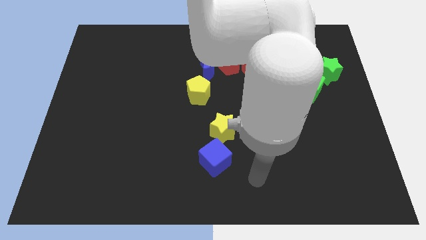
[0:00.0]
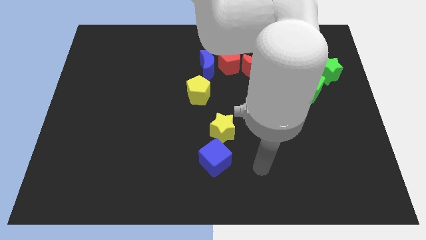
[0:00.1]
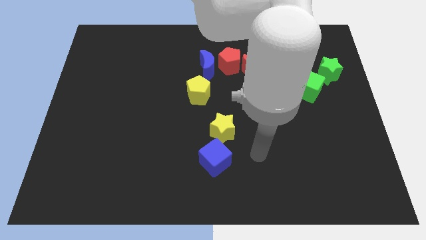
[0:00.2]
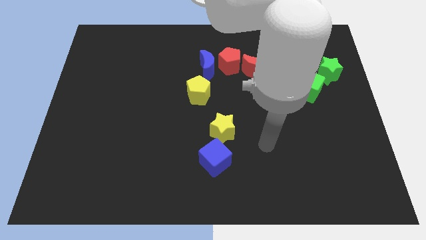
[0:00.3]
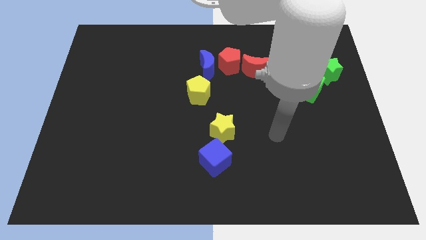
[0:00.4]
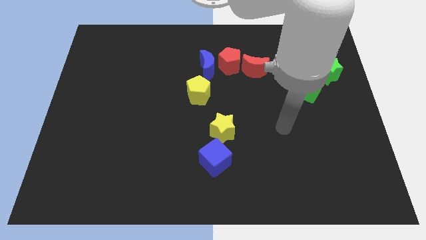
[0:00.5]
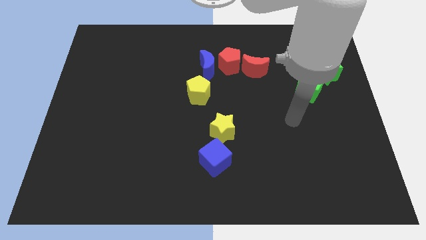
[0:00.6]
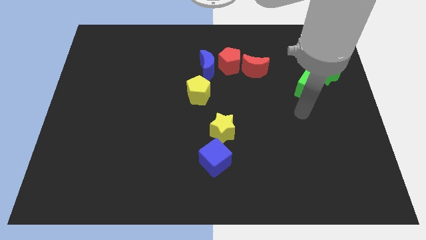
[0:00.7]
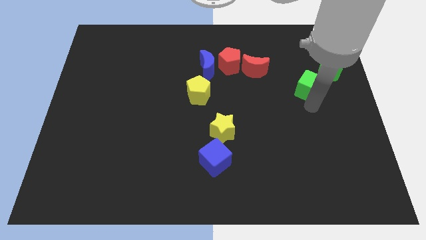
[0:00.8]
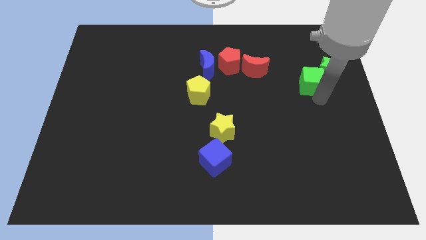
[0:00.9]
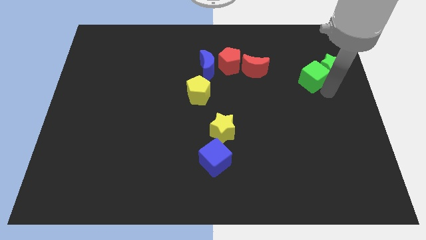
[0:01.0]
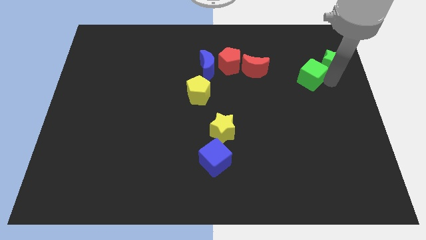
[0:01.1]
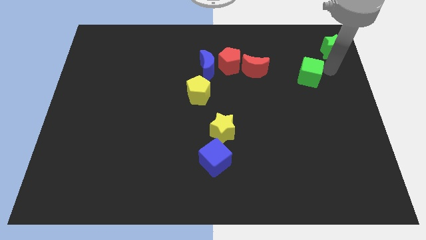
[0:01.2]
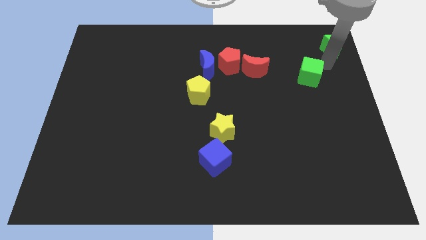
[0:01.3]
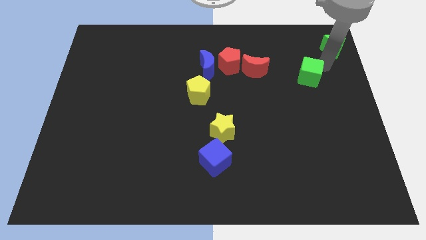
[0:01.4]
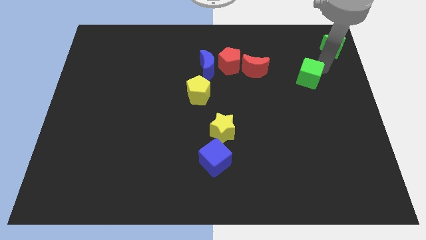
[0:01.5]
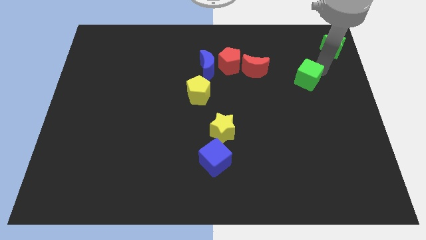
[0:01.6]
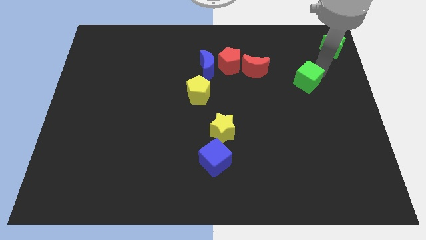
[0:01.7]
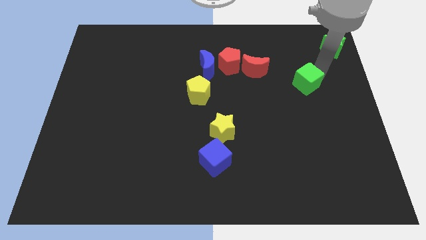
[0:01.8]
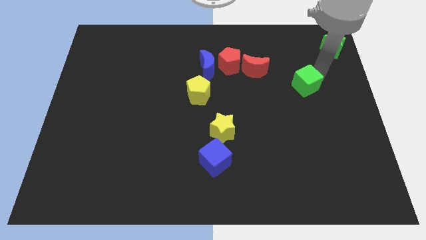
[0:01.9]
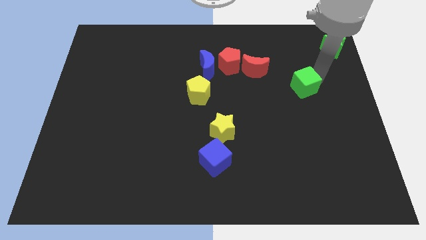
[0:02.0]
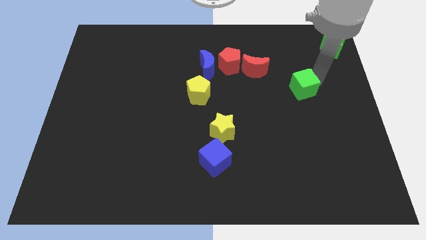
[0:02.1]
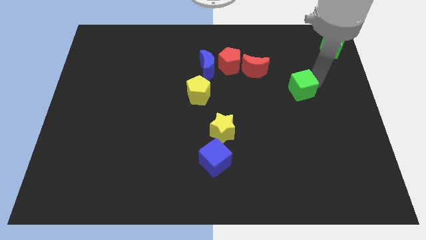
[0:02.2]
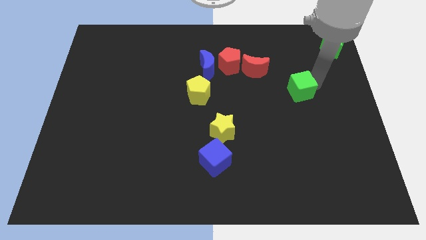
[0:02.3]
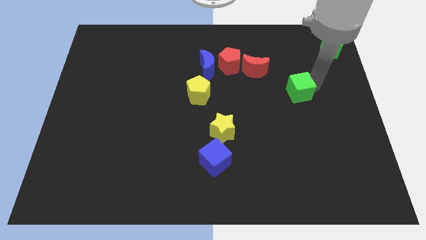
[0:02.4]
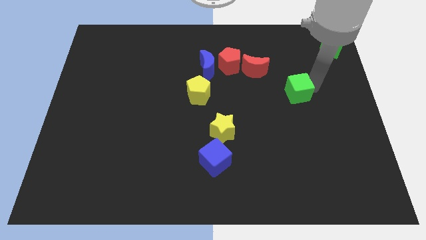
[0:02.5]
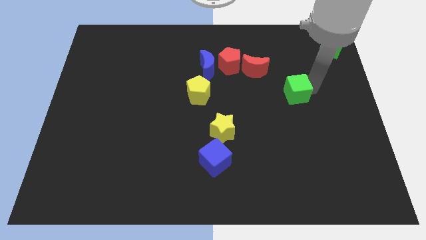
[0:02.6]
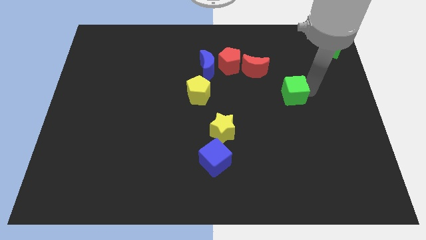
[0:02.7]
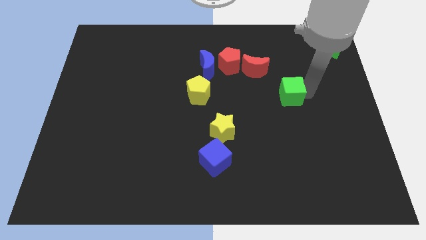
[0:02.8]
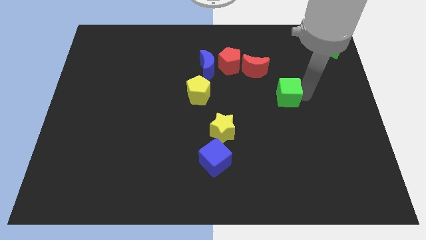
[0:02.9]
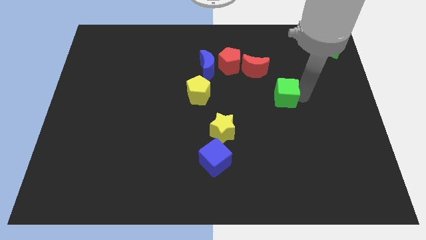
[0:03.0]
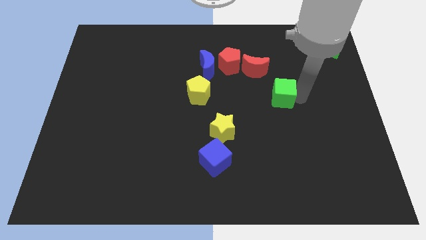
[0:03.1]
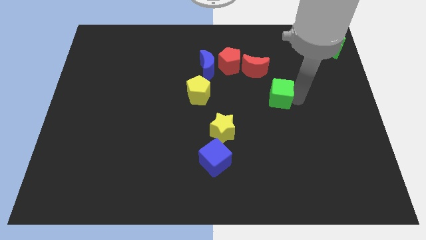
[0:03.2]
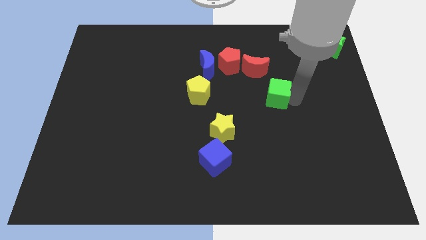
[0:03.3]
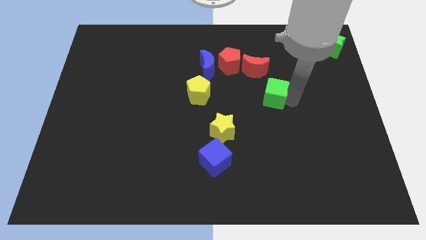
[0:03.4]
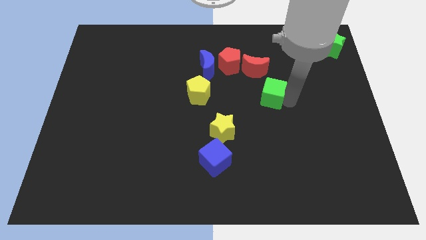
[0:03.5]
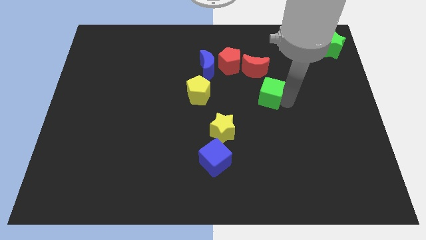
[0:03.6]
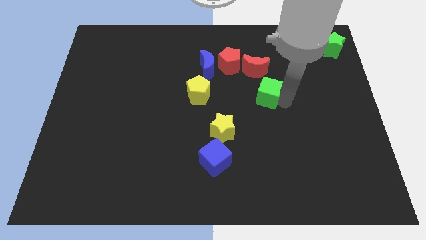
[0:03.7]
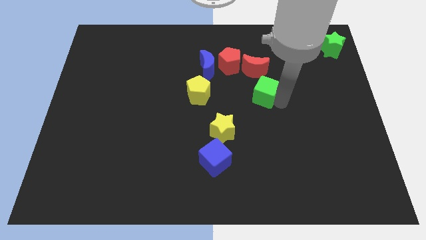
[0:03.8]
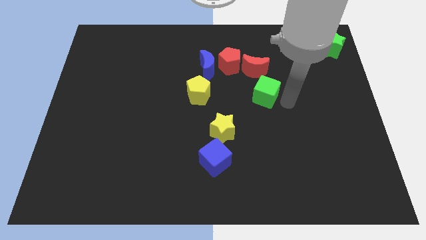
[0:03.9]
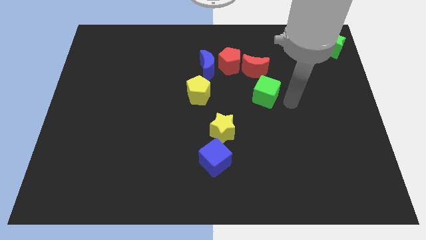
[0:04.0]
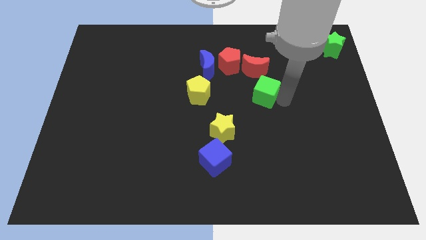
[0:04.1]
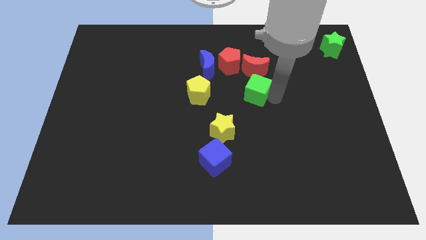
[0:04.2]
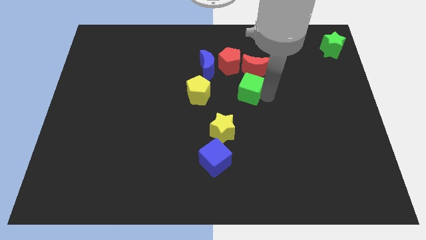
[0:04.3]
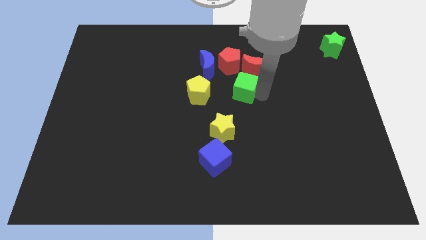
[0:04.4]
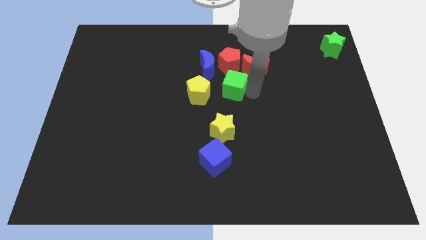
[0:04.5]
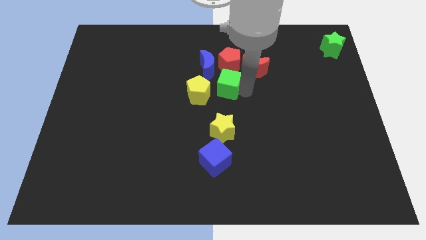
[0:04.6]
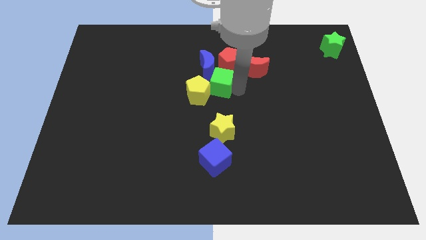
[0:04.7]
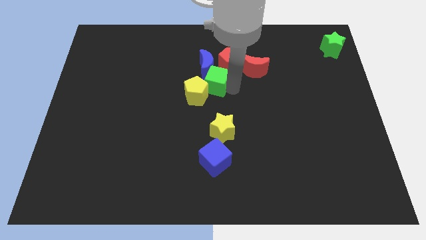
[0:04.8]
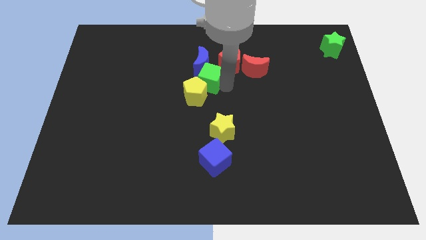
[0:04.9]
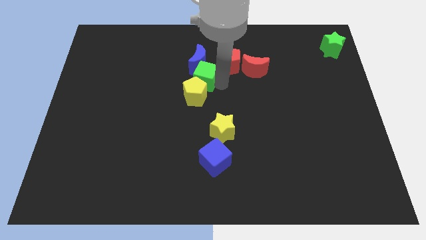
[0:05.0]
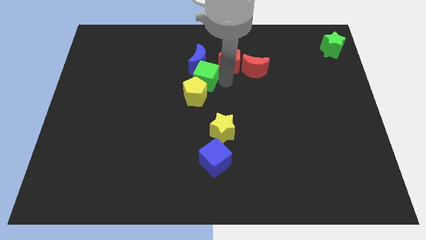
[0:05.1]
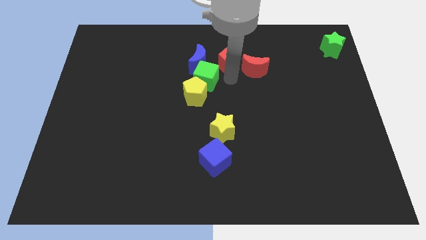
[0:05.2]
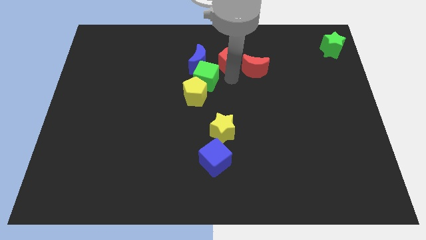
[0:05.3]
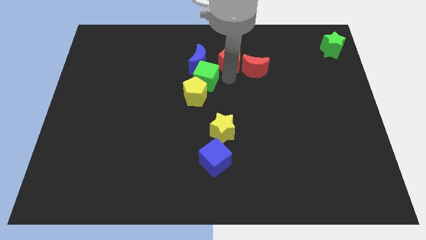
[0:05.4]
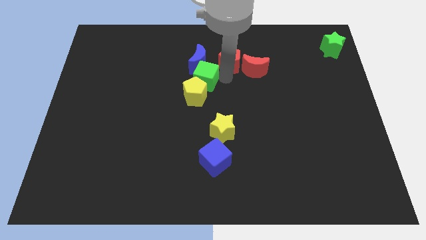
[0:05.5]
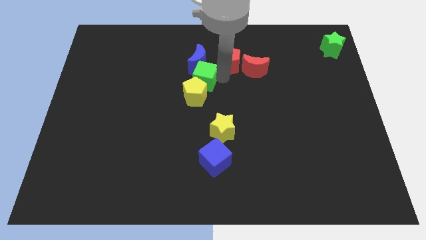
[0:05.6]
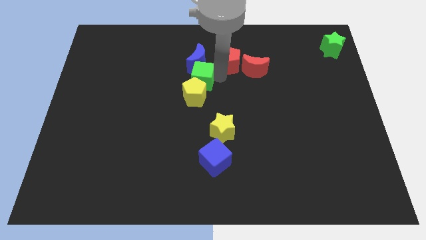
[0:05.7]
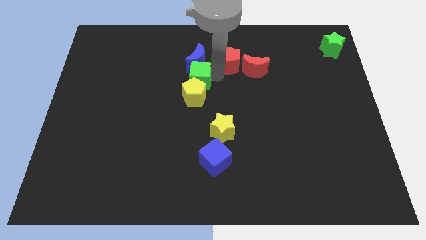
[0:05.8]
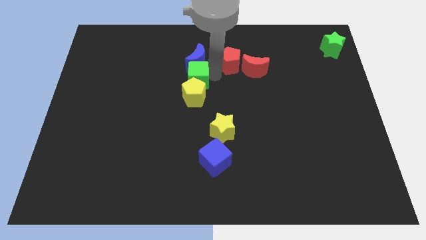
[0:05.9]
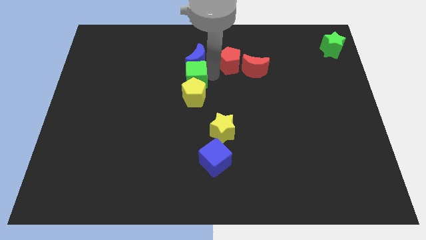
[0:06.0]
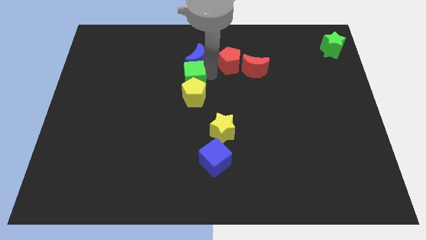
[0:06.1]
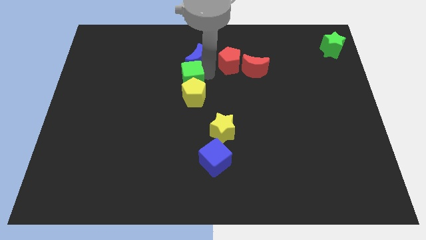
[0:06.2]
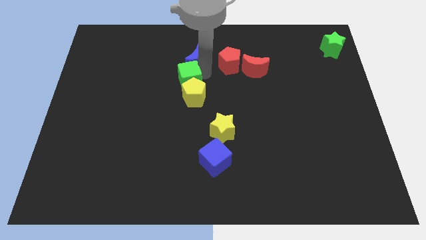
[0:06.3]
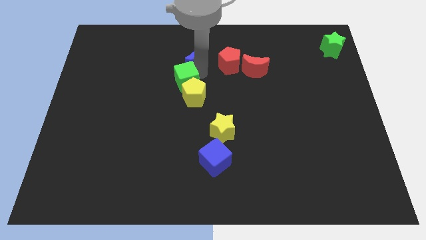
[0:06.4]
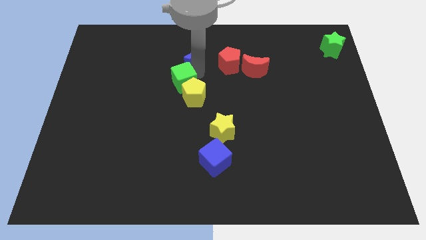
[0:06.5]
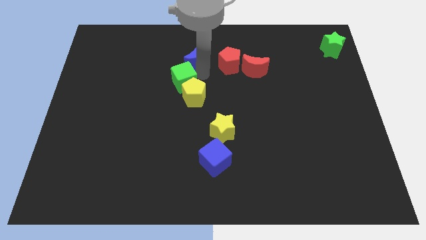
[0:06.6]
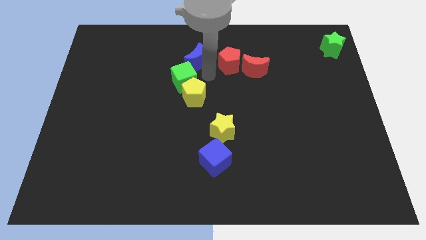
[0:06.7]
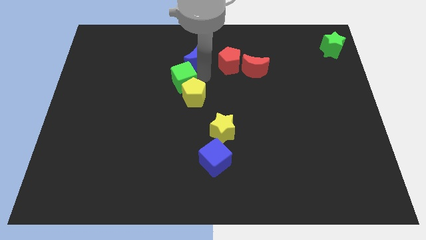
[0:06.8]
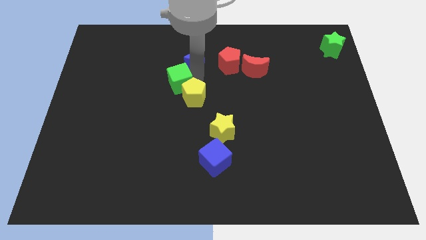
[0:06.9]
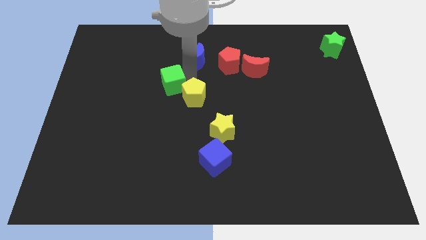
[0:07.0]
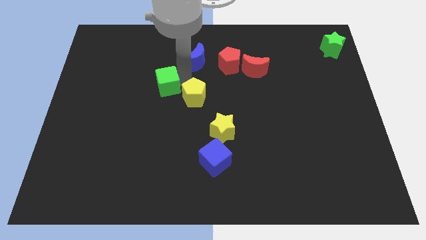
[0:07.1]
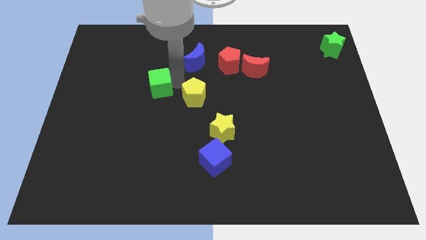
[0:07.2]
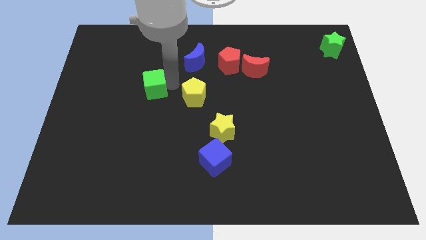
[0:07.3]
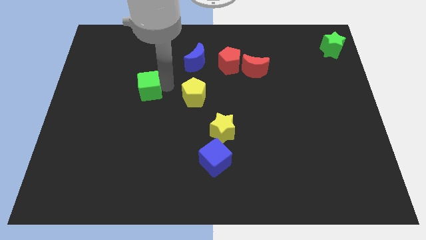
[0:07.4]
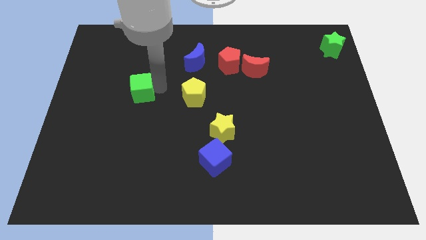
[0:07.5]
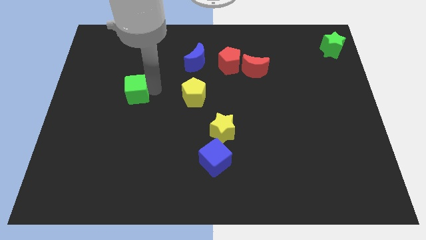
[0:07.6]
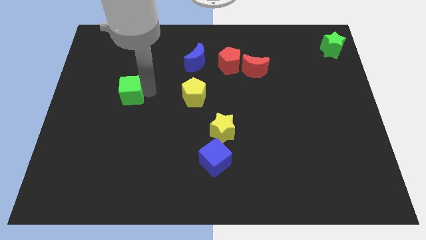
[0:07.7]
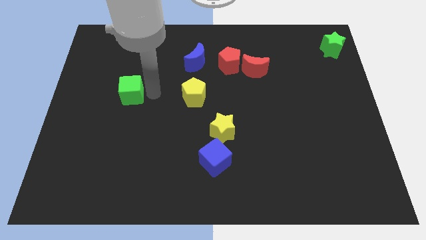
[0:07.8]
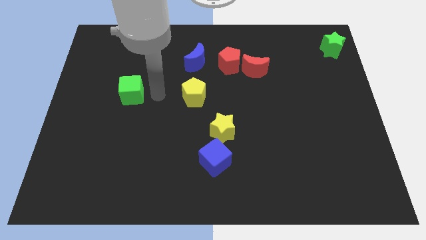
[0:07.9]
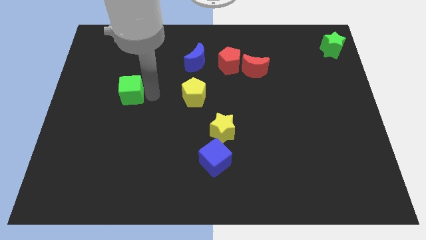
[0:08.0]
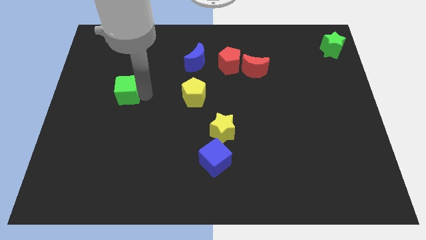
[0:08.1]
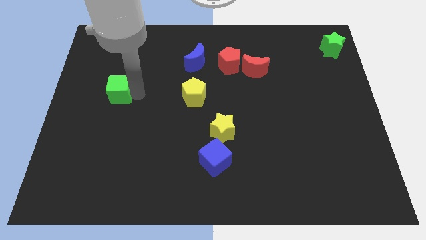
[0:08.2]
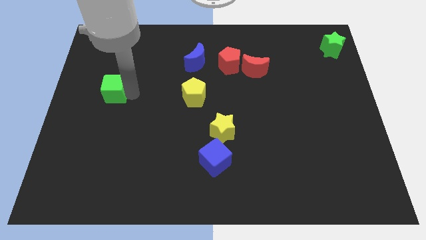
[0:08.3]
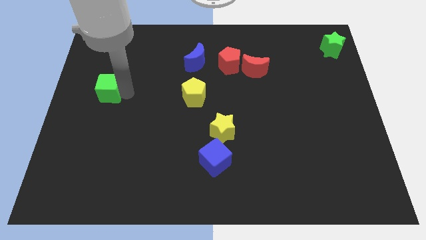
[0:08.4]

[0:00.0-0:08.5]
put the green cube to the center left
